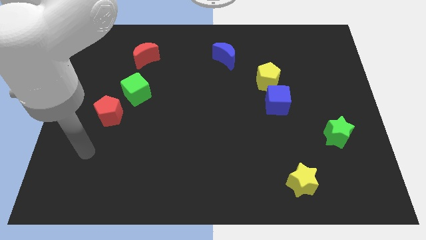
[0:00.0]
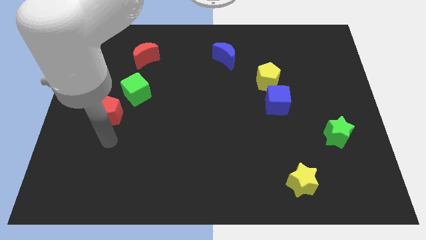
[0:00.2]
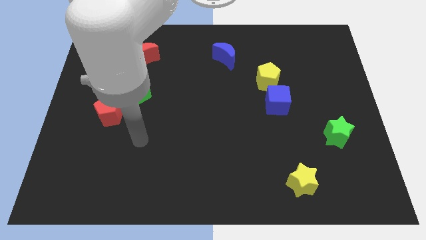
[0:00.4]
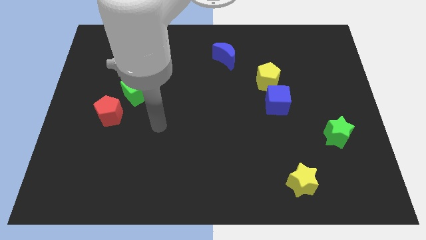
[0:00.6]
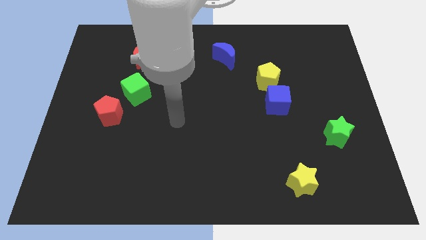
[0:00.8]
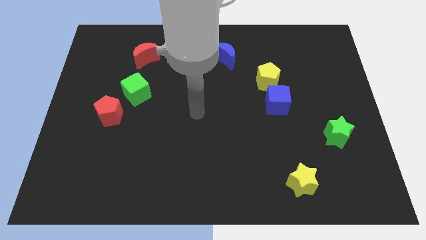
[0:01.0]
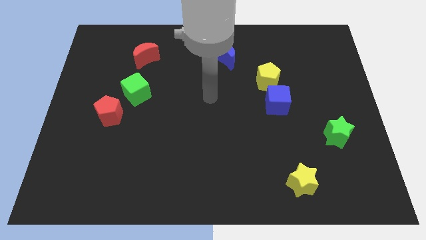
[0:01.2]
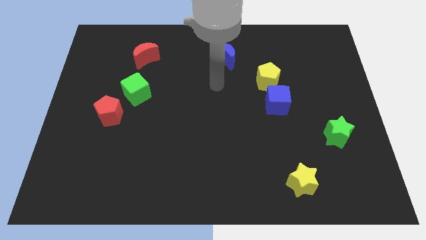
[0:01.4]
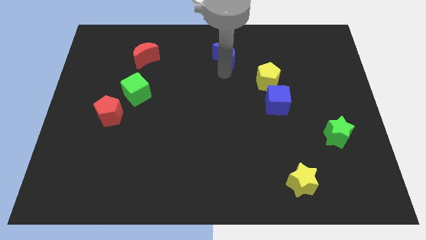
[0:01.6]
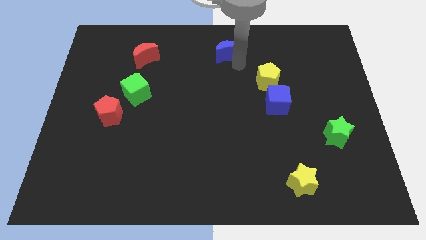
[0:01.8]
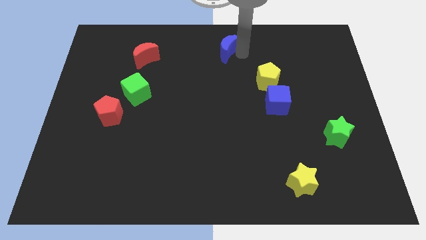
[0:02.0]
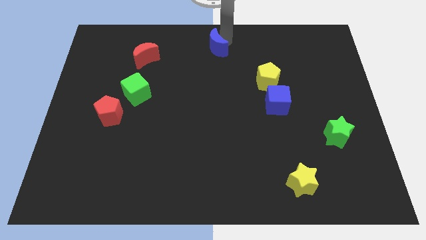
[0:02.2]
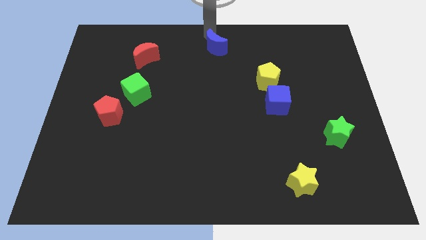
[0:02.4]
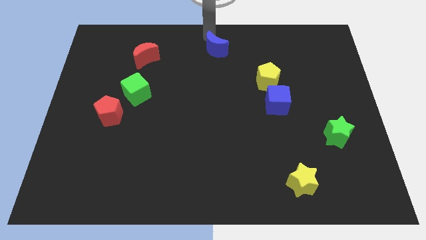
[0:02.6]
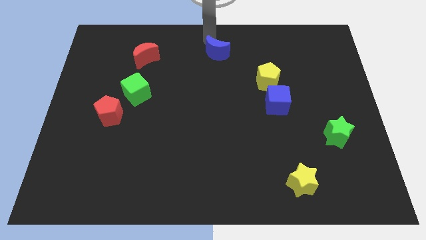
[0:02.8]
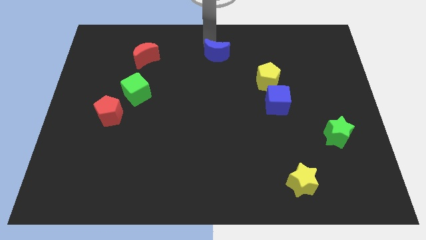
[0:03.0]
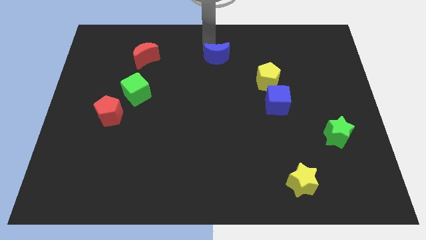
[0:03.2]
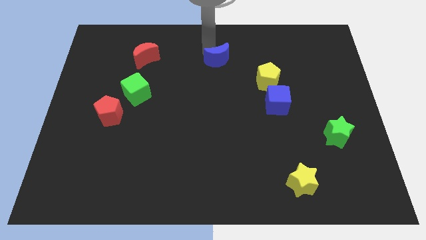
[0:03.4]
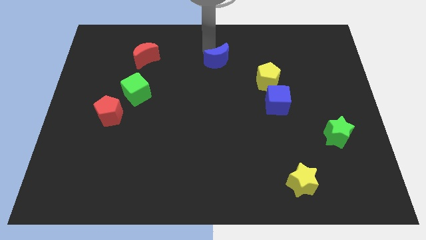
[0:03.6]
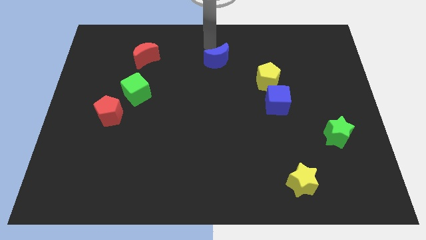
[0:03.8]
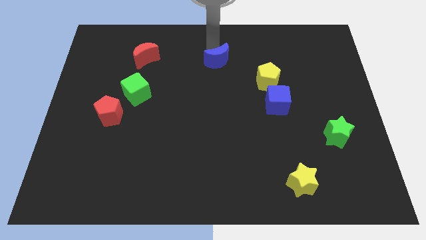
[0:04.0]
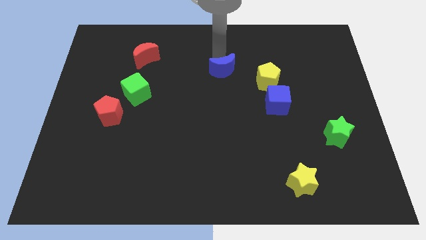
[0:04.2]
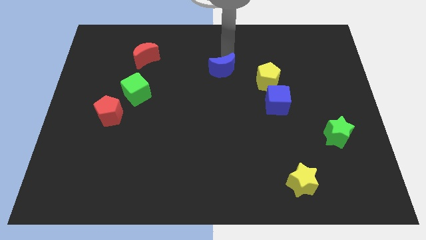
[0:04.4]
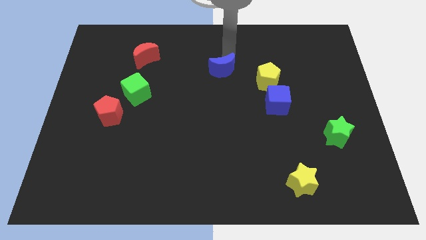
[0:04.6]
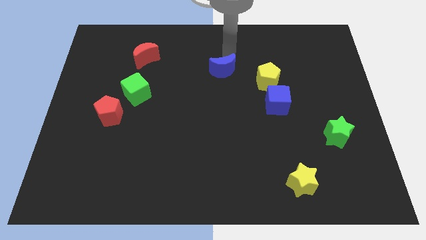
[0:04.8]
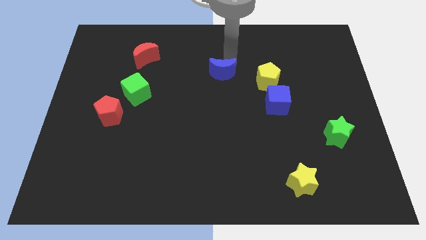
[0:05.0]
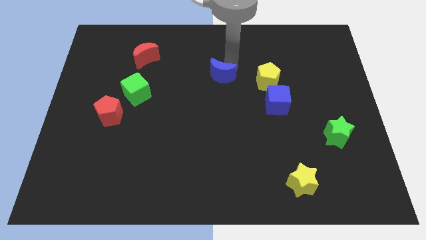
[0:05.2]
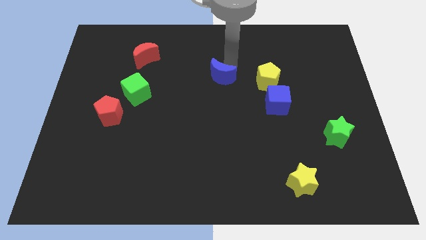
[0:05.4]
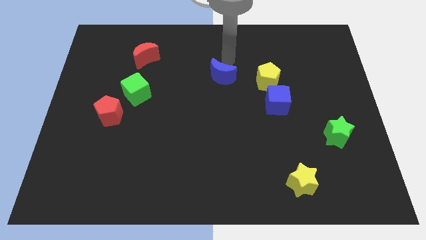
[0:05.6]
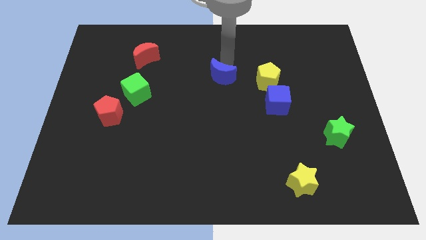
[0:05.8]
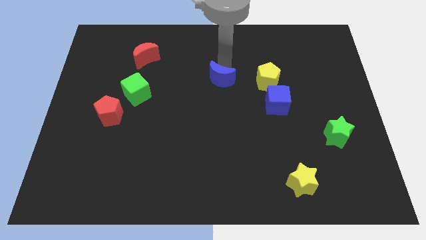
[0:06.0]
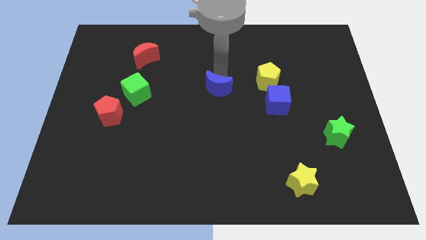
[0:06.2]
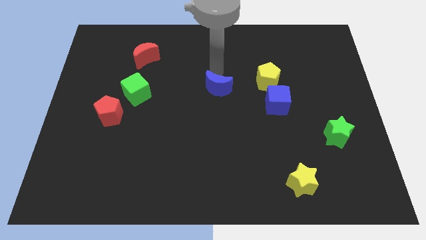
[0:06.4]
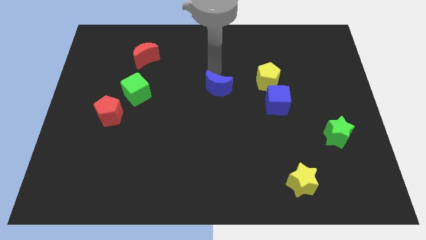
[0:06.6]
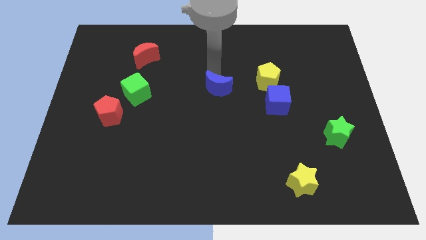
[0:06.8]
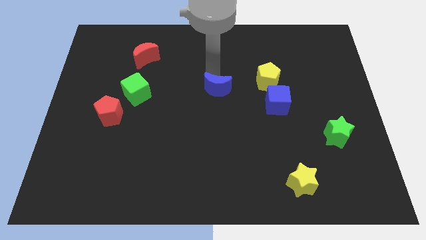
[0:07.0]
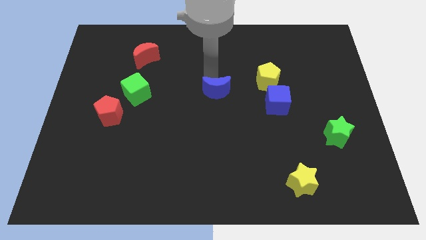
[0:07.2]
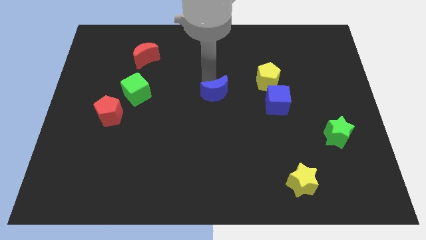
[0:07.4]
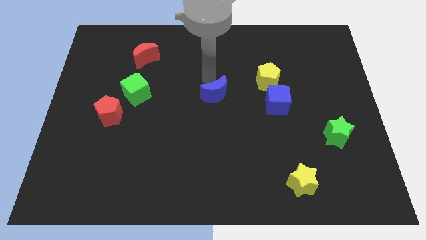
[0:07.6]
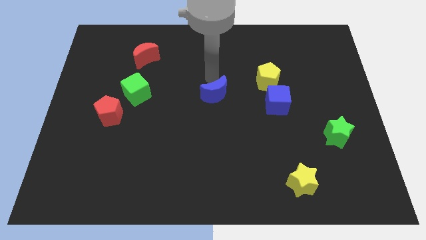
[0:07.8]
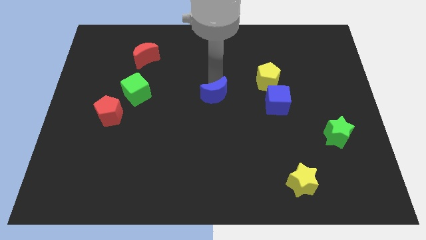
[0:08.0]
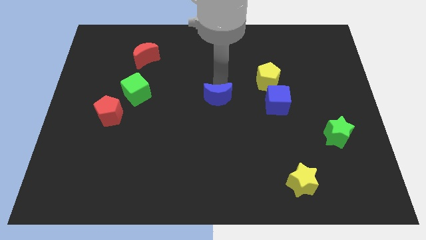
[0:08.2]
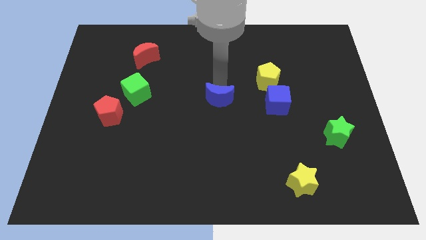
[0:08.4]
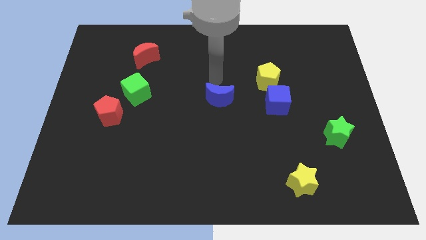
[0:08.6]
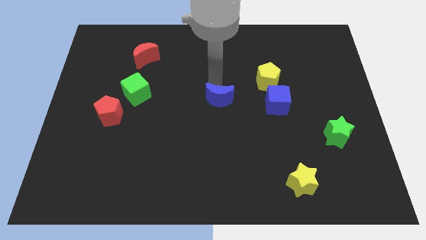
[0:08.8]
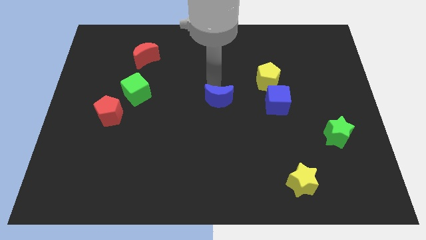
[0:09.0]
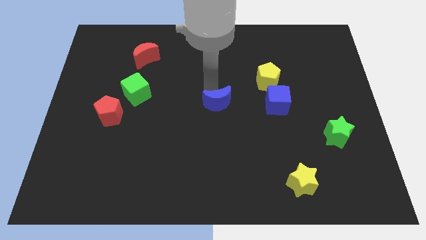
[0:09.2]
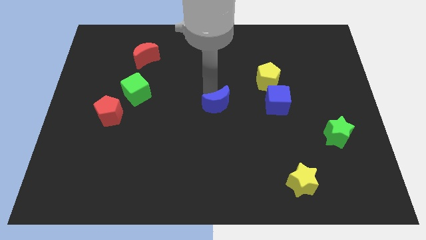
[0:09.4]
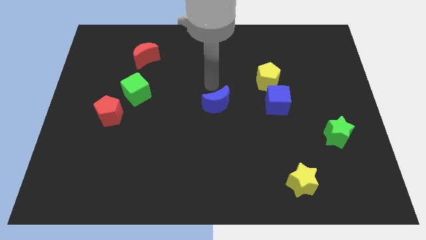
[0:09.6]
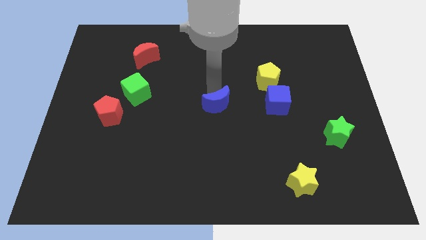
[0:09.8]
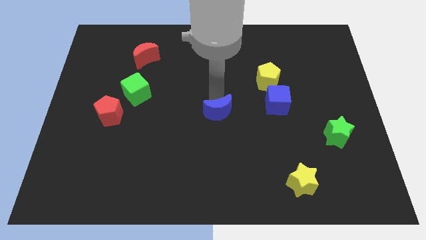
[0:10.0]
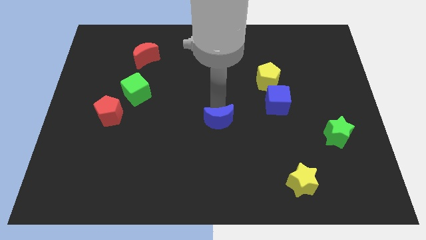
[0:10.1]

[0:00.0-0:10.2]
push the blue moon down

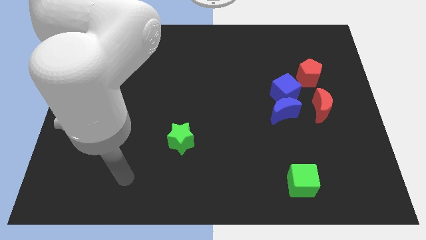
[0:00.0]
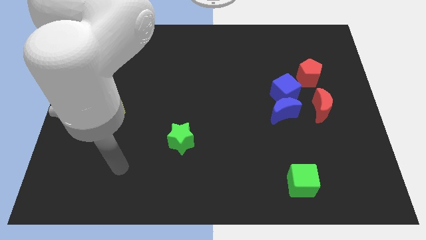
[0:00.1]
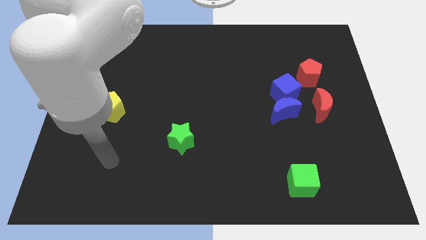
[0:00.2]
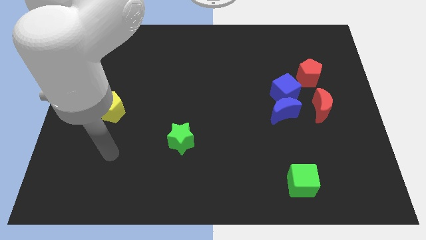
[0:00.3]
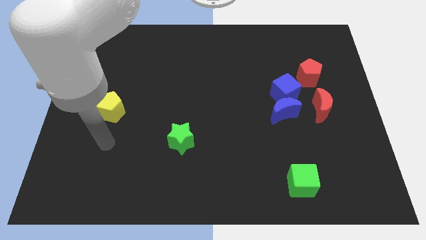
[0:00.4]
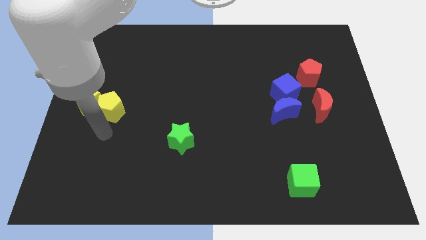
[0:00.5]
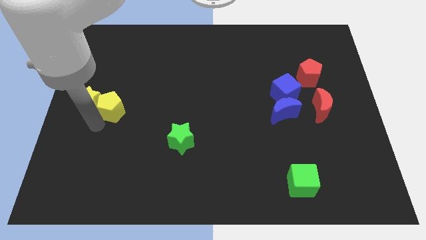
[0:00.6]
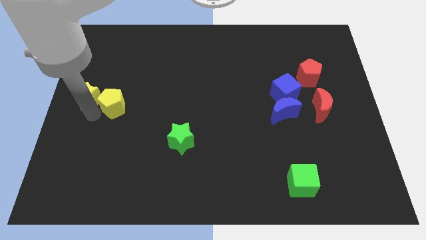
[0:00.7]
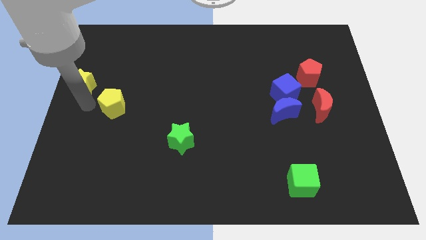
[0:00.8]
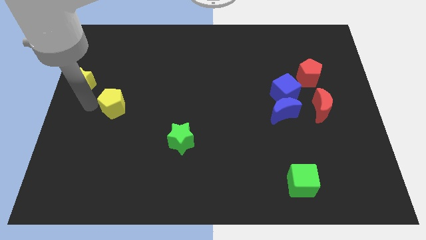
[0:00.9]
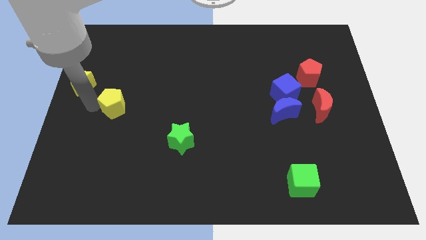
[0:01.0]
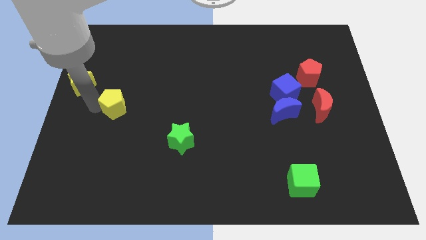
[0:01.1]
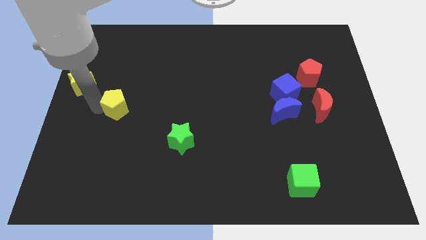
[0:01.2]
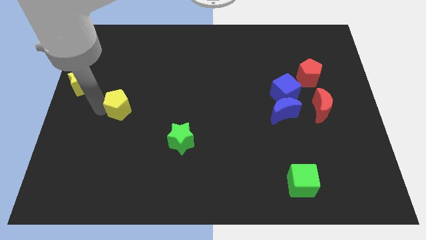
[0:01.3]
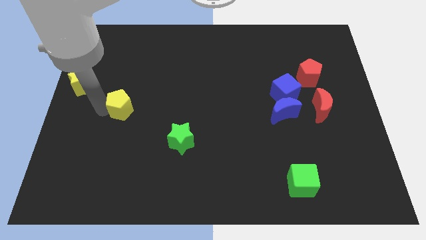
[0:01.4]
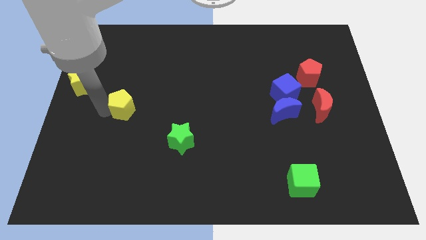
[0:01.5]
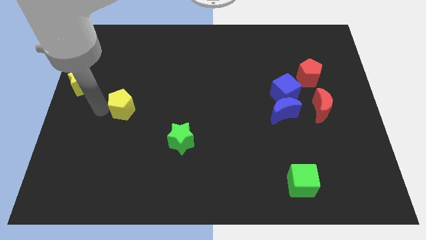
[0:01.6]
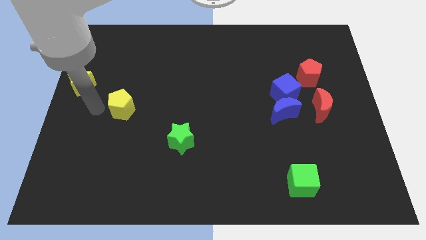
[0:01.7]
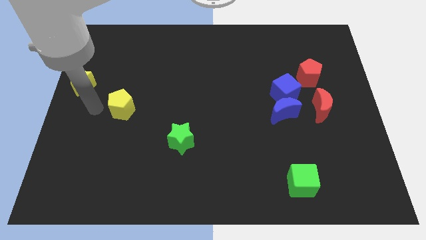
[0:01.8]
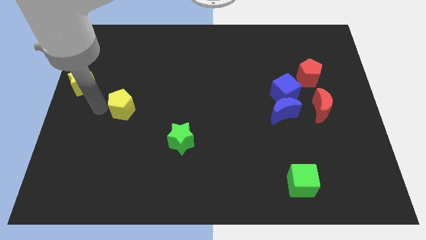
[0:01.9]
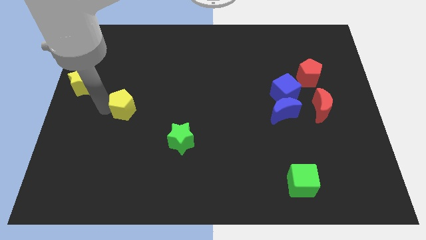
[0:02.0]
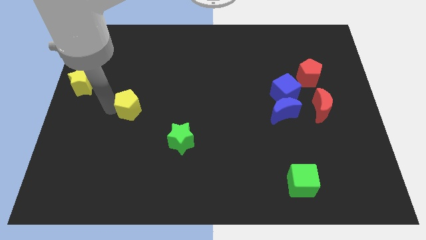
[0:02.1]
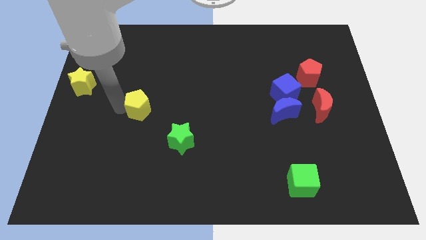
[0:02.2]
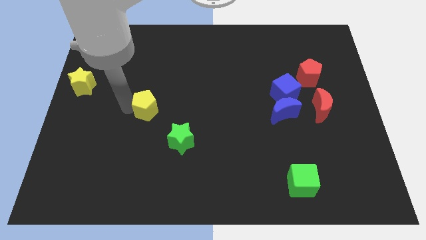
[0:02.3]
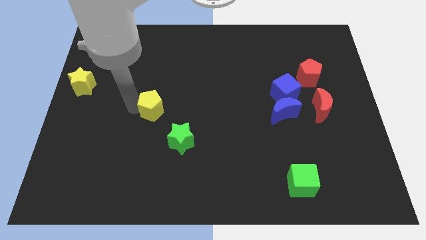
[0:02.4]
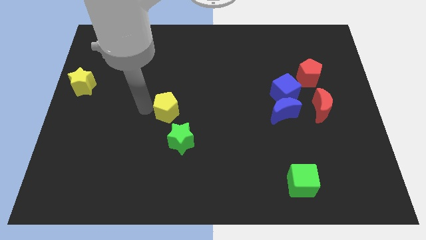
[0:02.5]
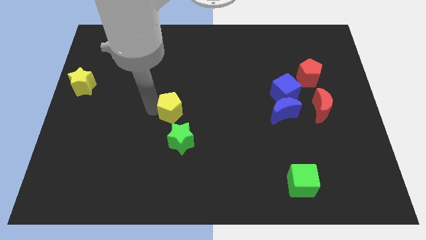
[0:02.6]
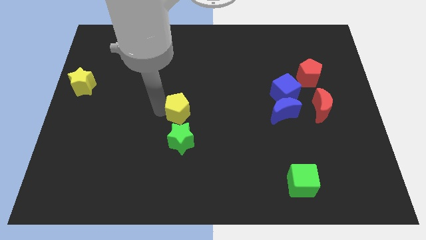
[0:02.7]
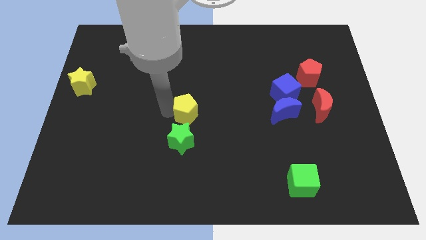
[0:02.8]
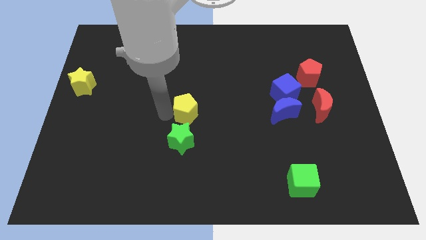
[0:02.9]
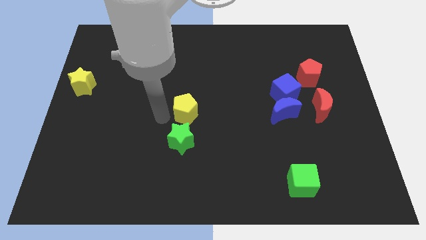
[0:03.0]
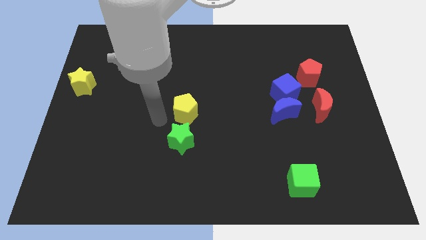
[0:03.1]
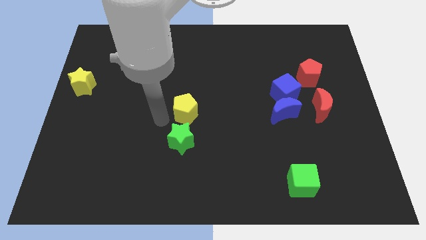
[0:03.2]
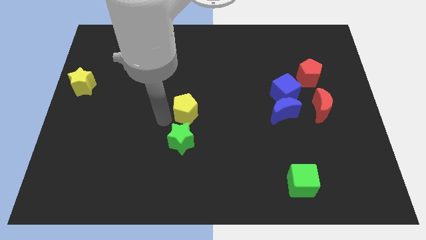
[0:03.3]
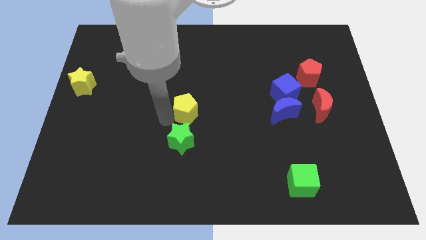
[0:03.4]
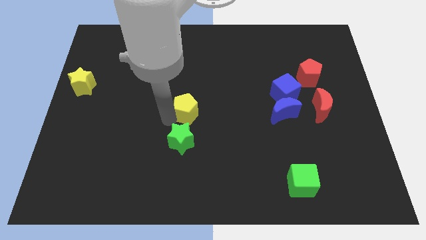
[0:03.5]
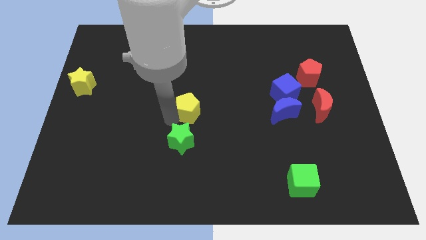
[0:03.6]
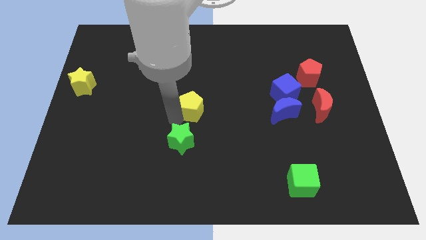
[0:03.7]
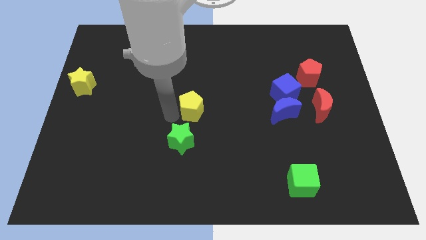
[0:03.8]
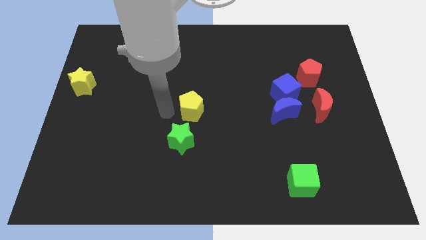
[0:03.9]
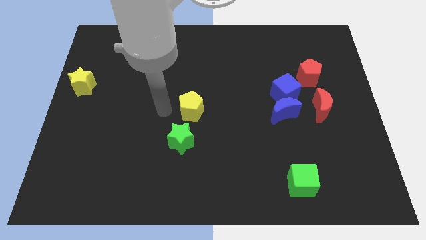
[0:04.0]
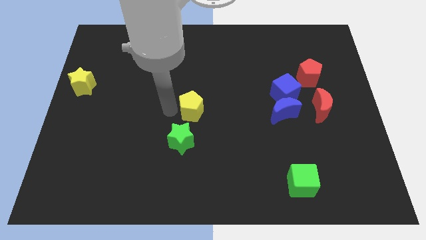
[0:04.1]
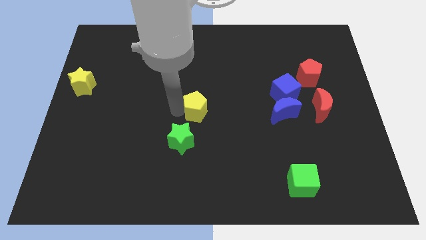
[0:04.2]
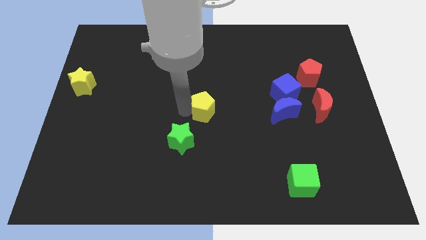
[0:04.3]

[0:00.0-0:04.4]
move the yellow pentagon right
